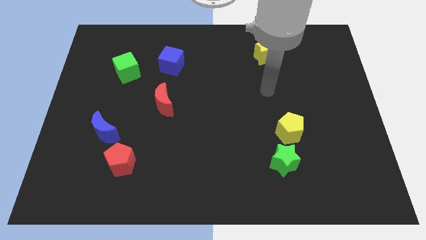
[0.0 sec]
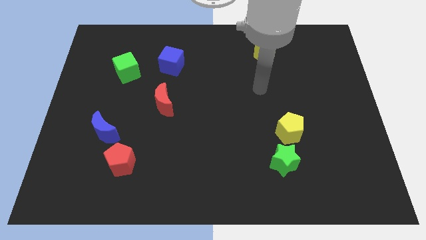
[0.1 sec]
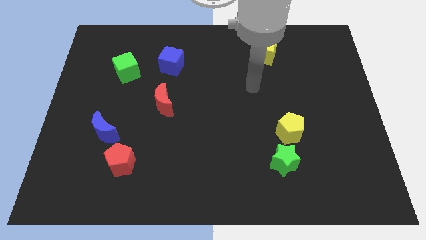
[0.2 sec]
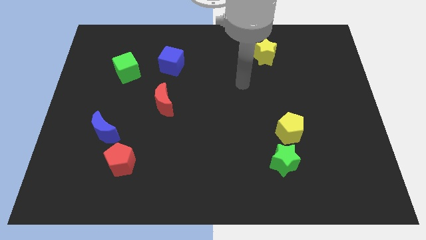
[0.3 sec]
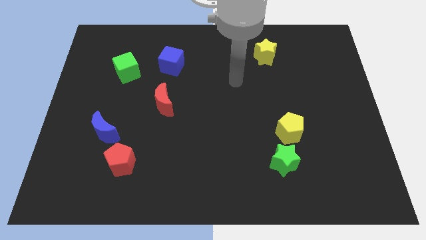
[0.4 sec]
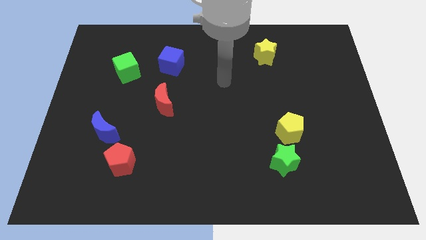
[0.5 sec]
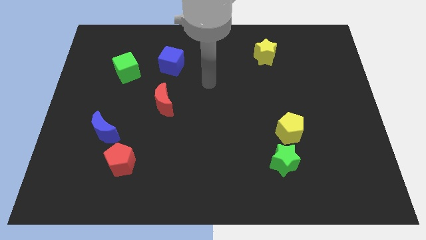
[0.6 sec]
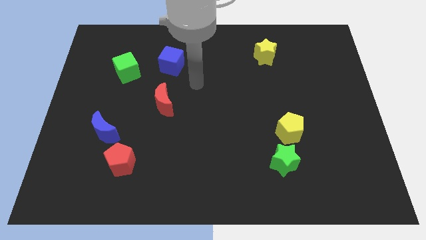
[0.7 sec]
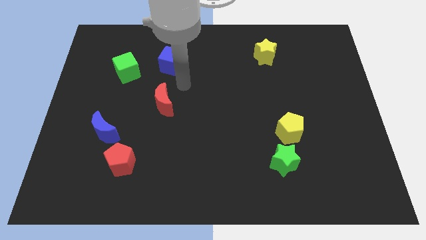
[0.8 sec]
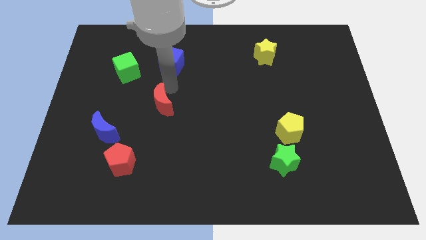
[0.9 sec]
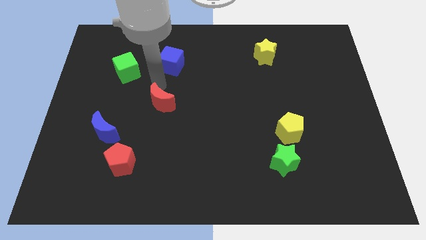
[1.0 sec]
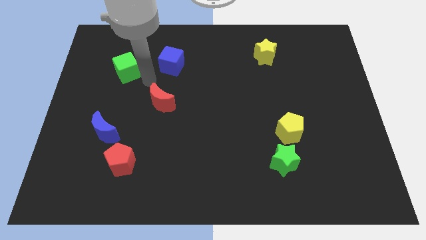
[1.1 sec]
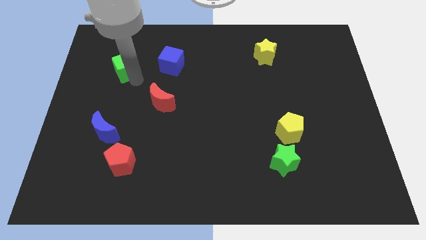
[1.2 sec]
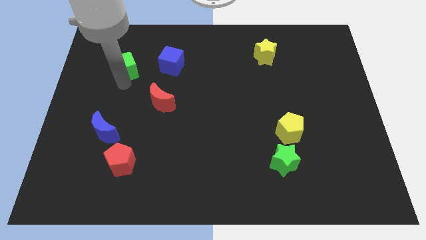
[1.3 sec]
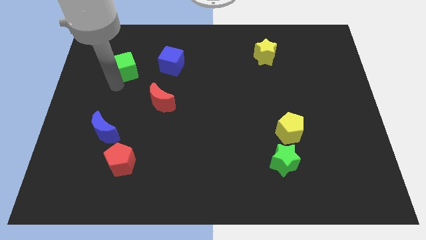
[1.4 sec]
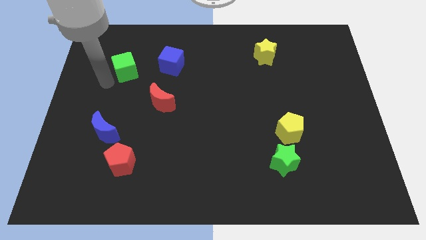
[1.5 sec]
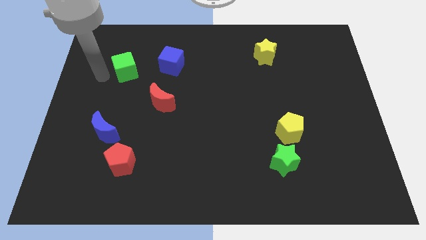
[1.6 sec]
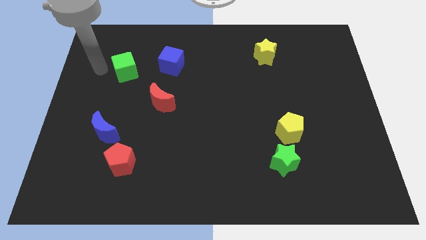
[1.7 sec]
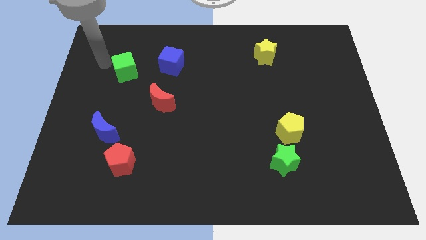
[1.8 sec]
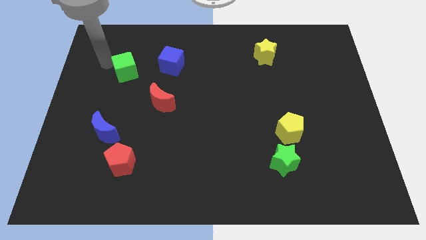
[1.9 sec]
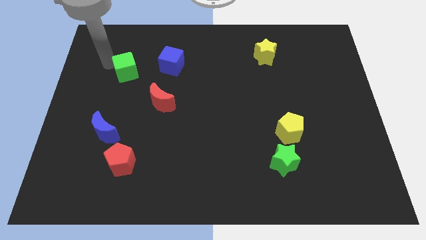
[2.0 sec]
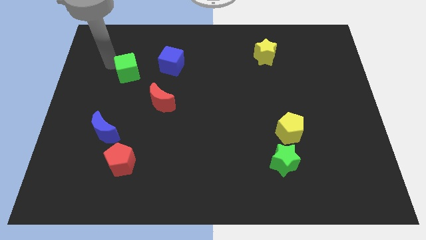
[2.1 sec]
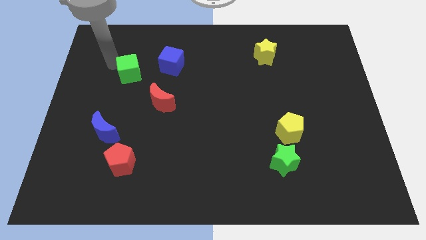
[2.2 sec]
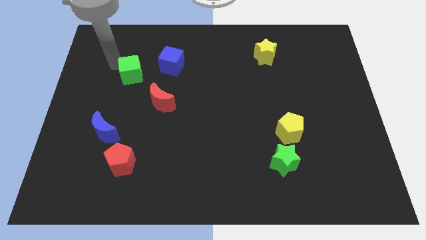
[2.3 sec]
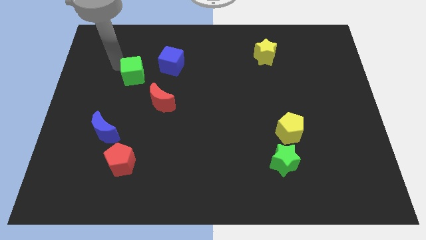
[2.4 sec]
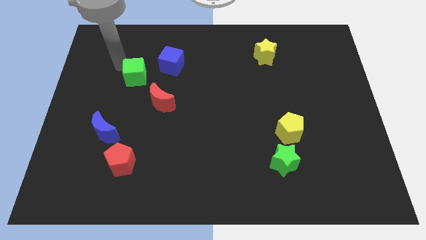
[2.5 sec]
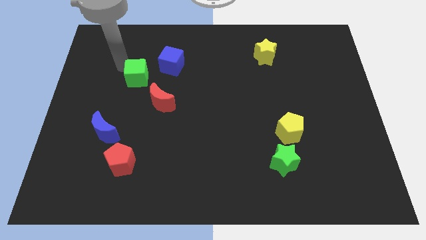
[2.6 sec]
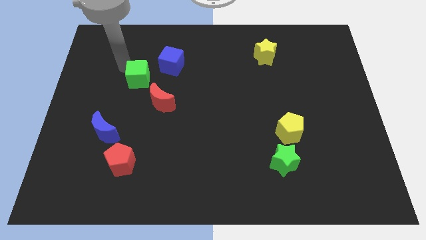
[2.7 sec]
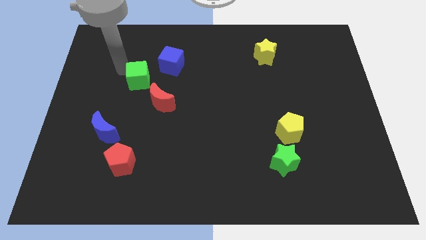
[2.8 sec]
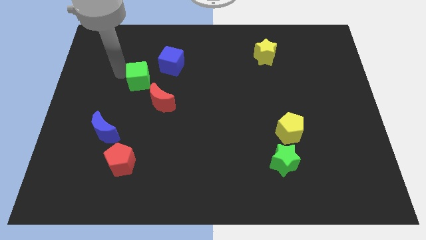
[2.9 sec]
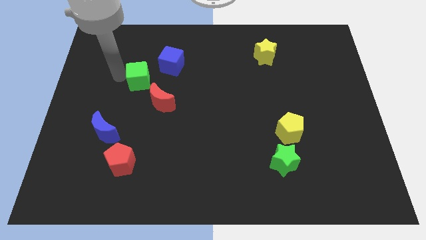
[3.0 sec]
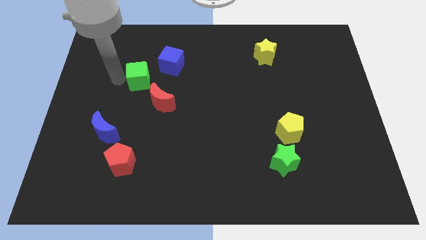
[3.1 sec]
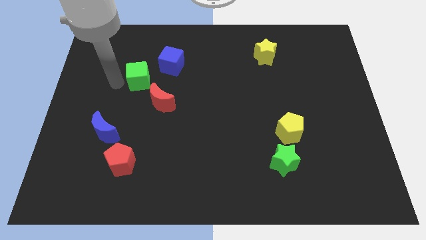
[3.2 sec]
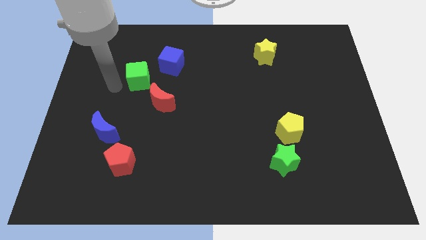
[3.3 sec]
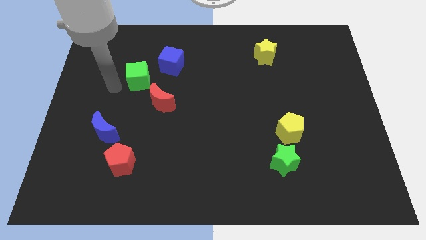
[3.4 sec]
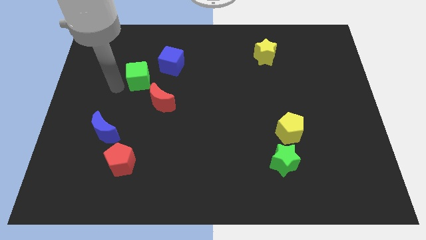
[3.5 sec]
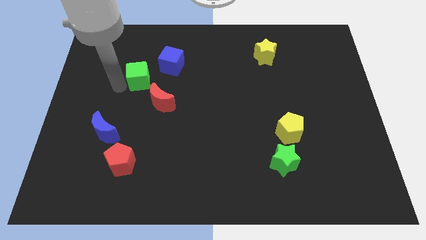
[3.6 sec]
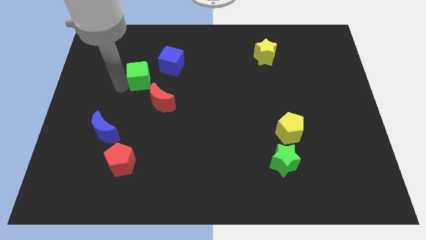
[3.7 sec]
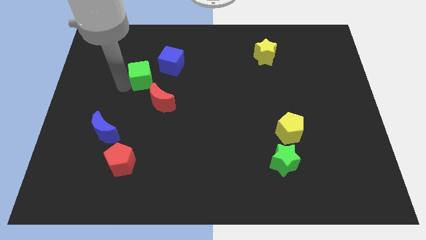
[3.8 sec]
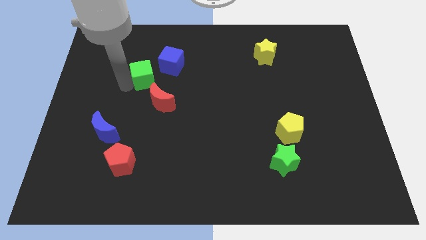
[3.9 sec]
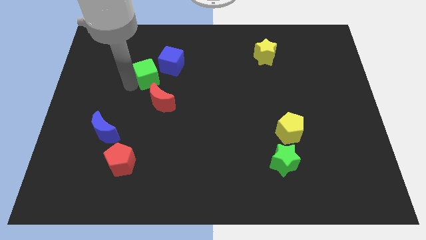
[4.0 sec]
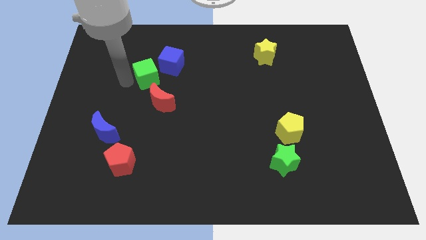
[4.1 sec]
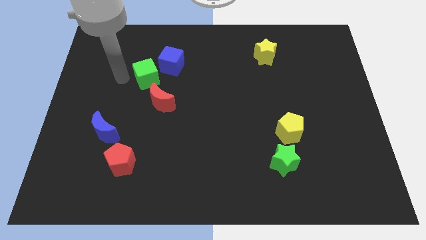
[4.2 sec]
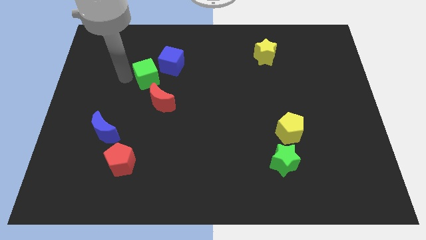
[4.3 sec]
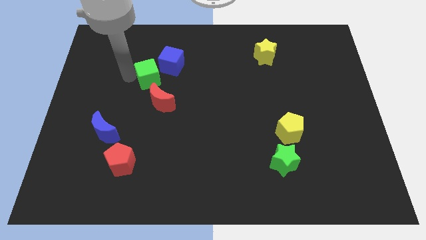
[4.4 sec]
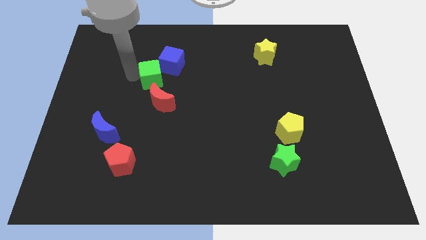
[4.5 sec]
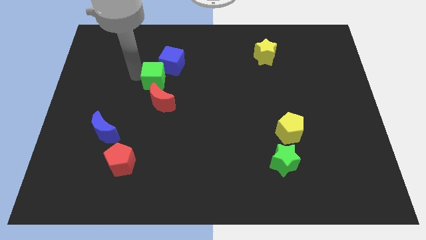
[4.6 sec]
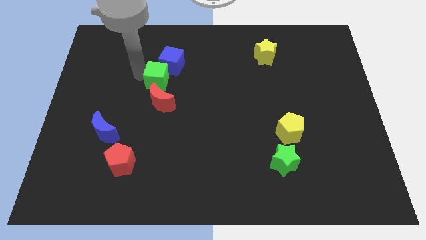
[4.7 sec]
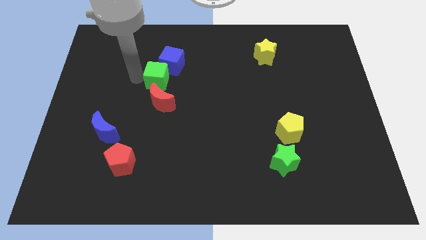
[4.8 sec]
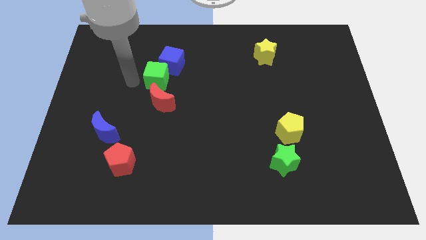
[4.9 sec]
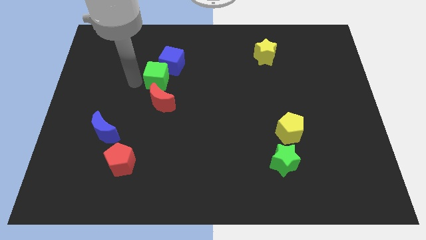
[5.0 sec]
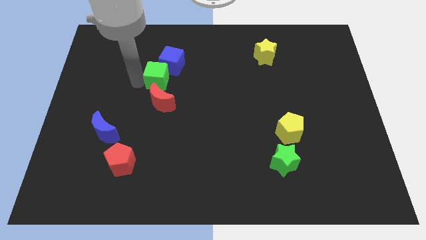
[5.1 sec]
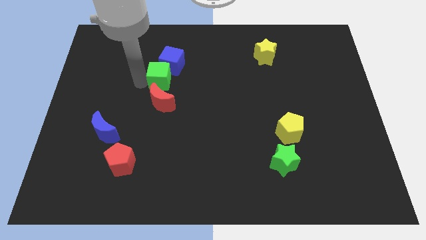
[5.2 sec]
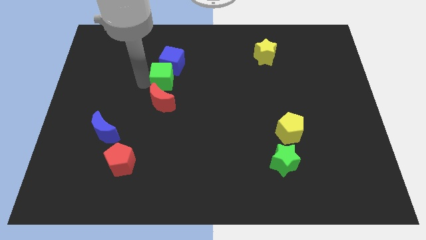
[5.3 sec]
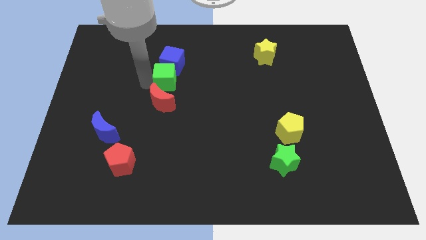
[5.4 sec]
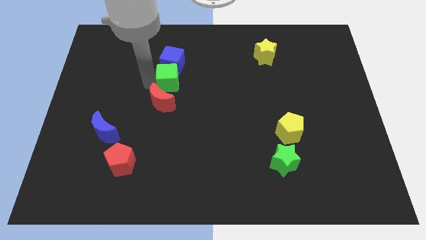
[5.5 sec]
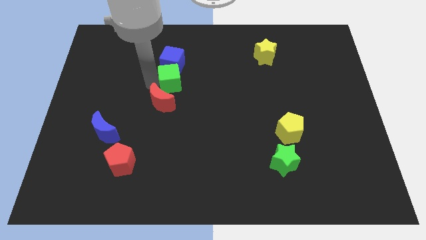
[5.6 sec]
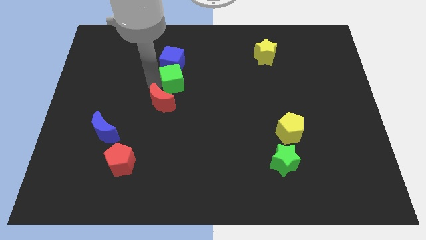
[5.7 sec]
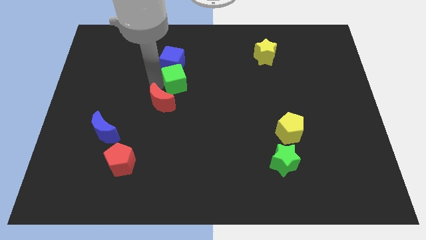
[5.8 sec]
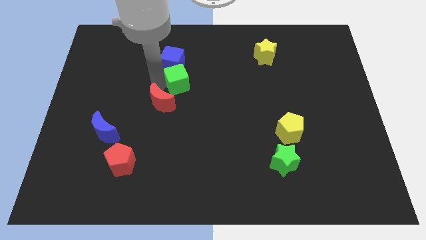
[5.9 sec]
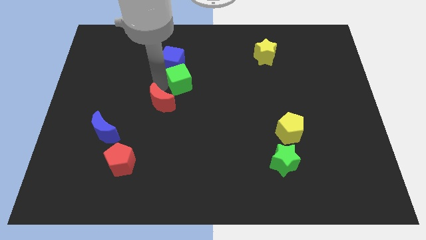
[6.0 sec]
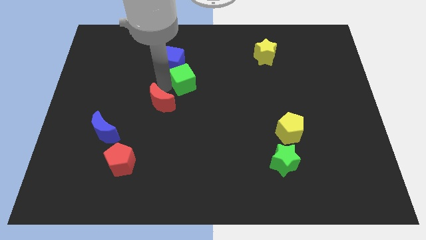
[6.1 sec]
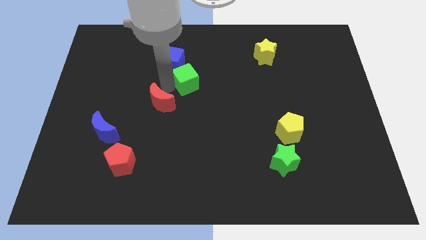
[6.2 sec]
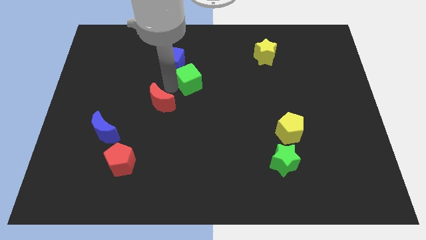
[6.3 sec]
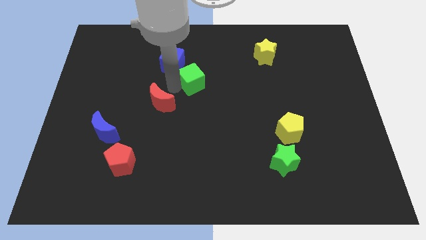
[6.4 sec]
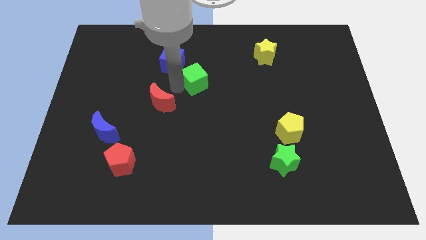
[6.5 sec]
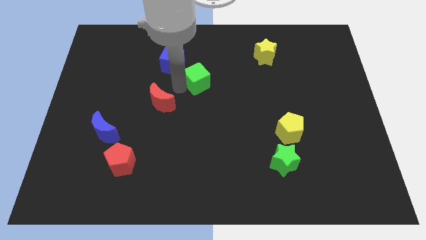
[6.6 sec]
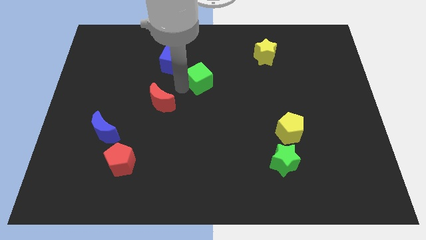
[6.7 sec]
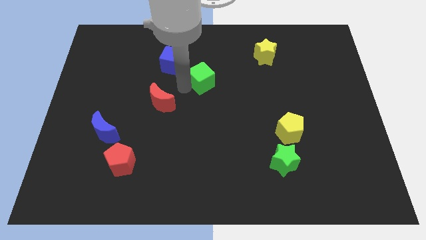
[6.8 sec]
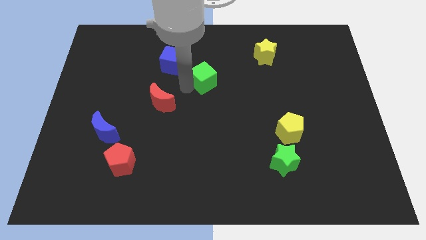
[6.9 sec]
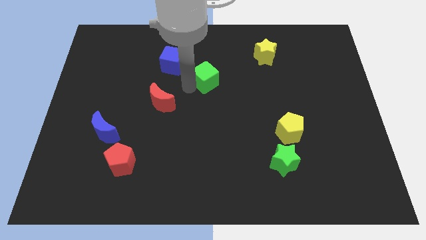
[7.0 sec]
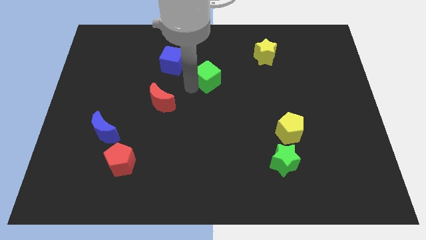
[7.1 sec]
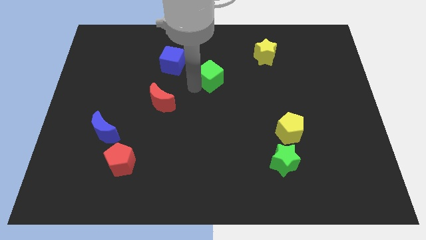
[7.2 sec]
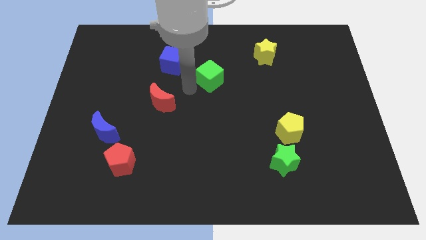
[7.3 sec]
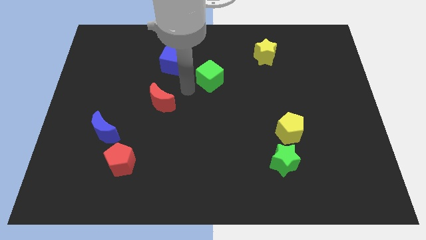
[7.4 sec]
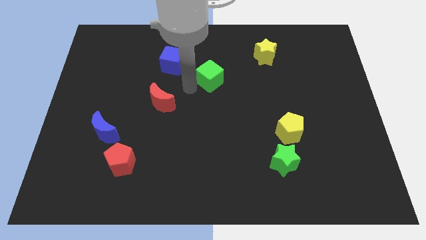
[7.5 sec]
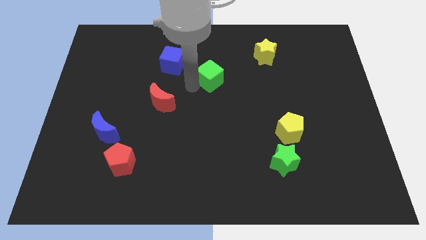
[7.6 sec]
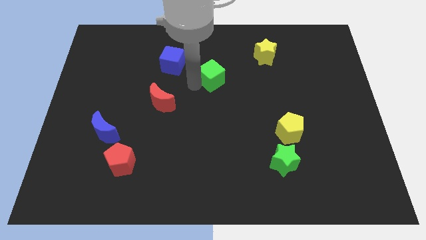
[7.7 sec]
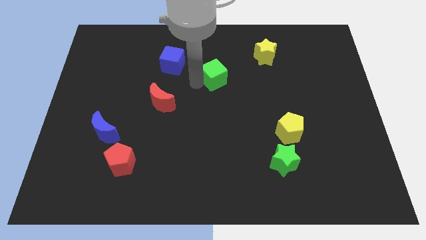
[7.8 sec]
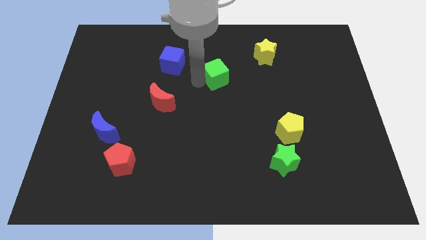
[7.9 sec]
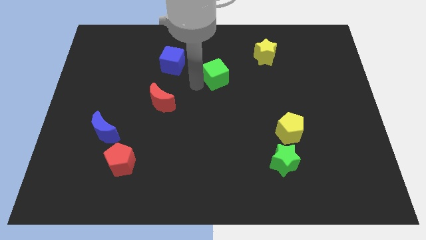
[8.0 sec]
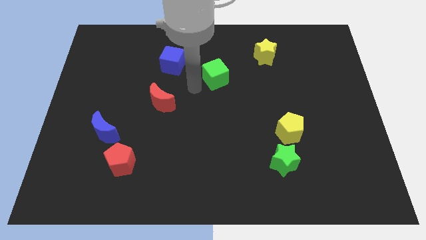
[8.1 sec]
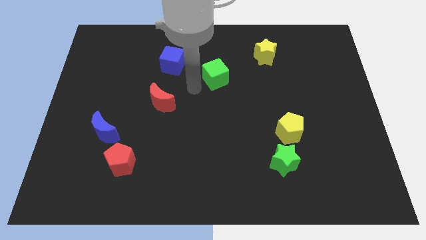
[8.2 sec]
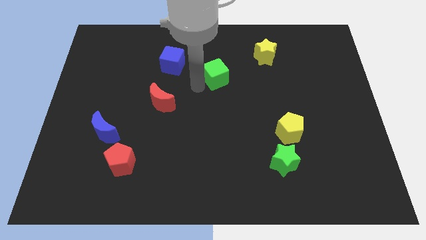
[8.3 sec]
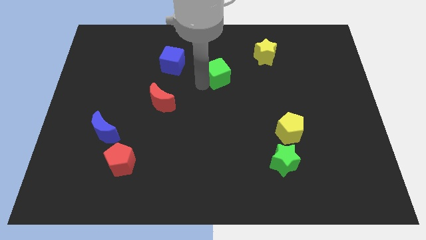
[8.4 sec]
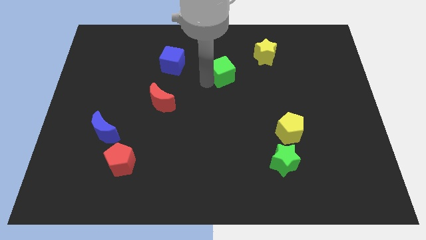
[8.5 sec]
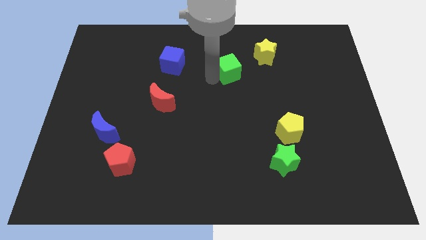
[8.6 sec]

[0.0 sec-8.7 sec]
put the green cube to the bottom left side of the yellow star

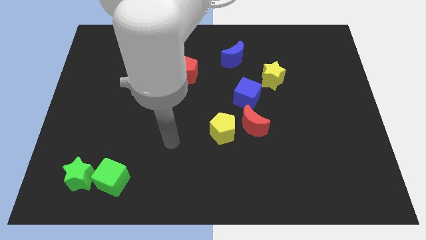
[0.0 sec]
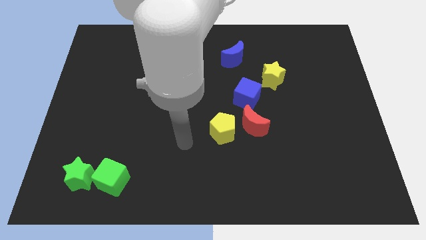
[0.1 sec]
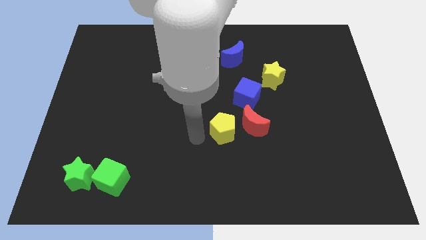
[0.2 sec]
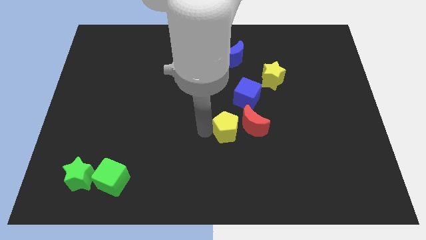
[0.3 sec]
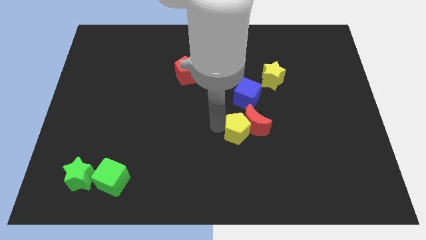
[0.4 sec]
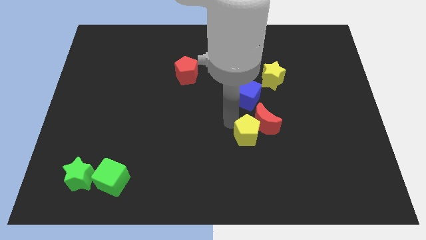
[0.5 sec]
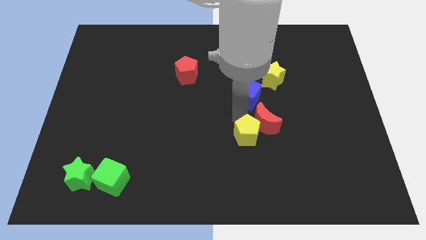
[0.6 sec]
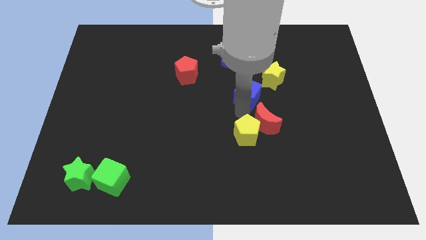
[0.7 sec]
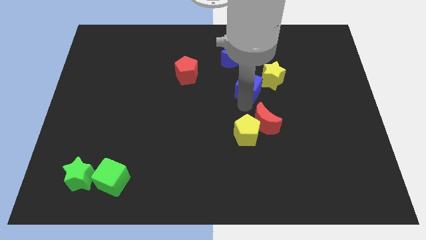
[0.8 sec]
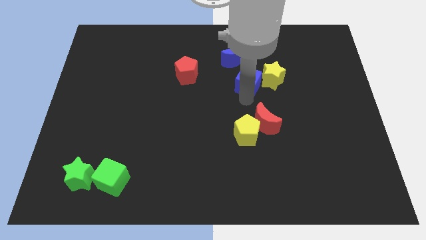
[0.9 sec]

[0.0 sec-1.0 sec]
push the blue cube to the bottom right side of the blue moon
